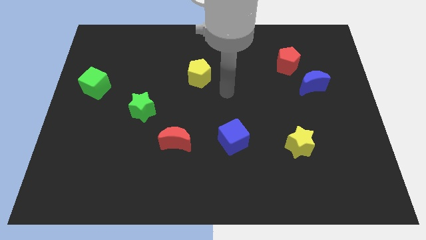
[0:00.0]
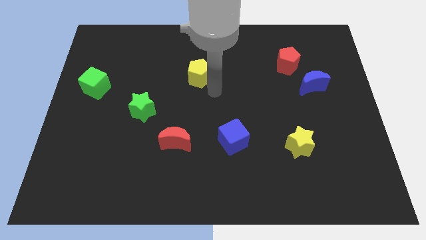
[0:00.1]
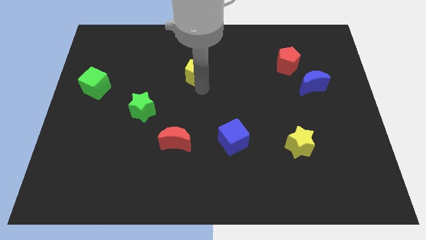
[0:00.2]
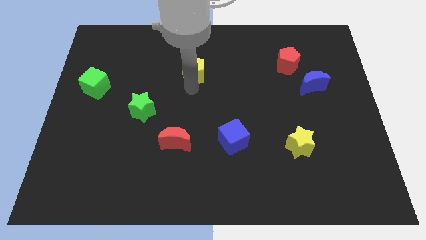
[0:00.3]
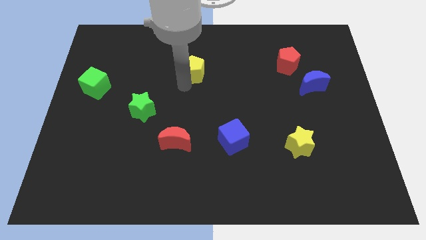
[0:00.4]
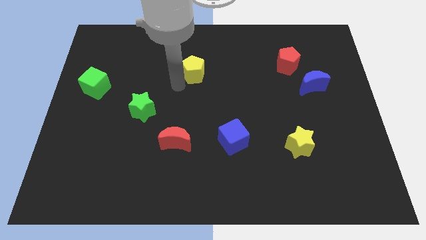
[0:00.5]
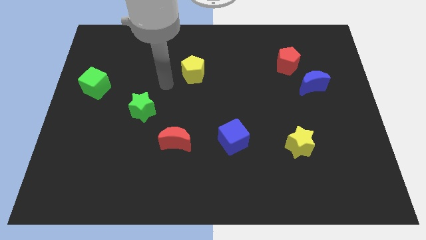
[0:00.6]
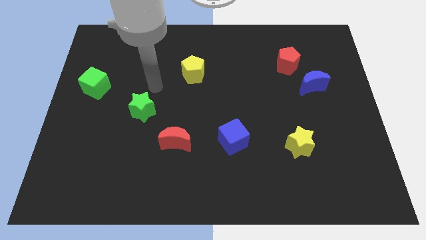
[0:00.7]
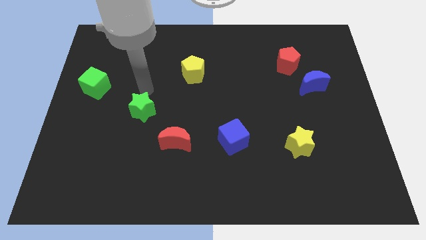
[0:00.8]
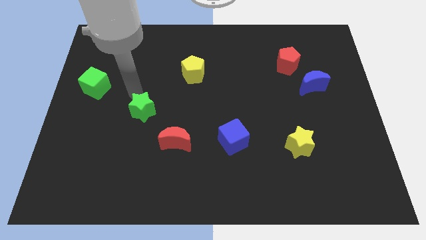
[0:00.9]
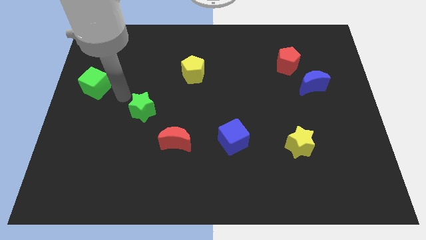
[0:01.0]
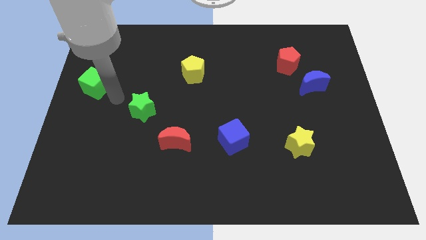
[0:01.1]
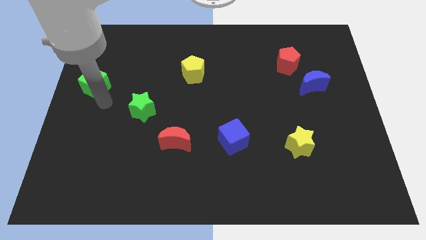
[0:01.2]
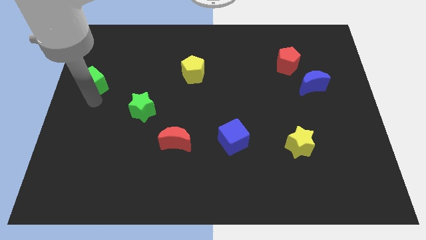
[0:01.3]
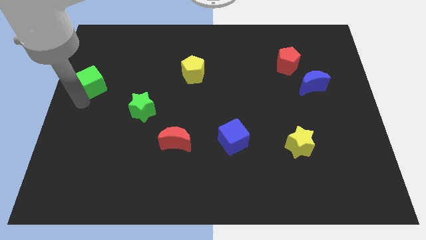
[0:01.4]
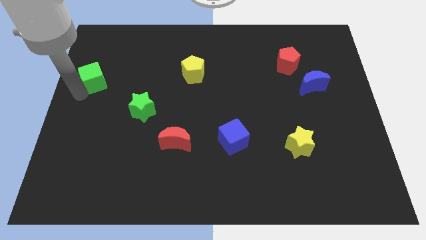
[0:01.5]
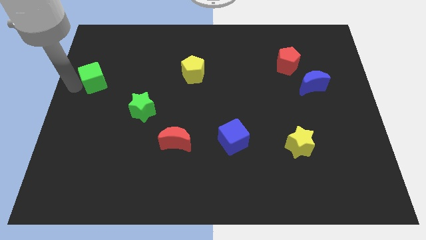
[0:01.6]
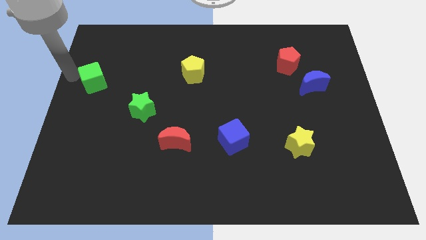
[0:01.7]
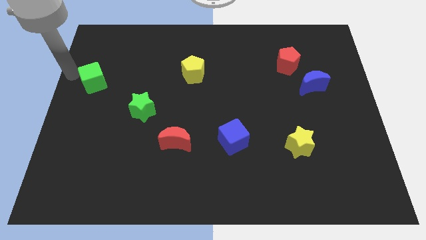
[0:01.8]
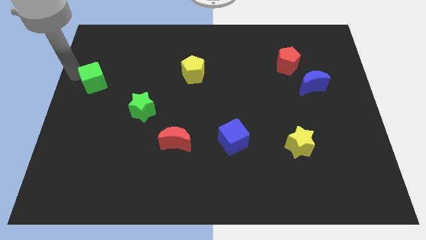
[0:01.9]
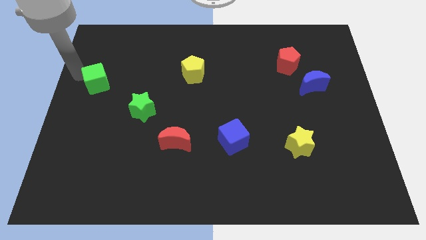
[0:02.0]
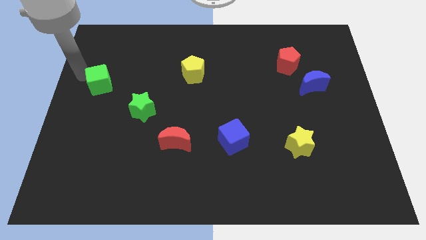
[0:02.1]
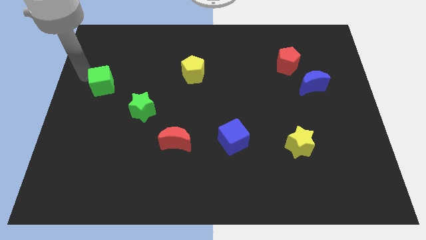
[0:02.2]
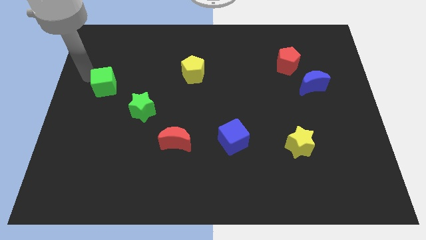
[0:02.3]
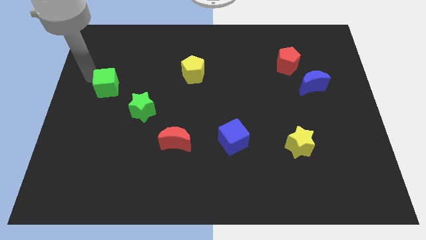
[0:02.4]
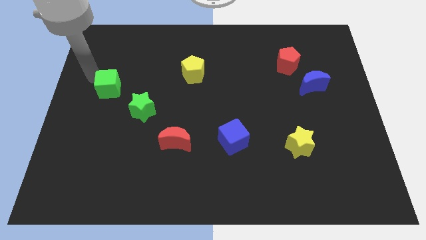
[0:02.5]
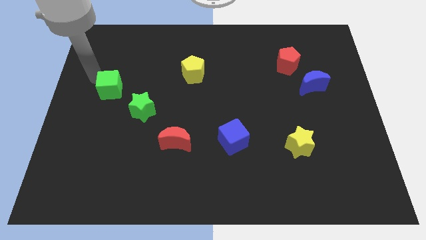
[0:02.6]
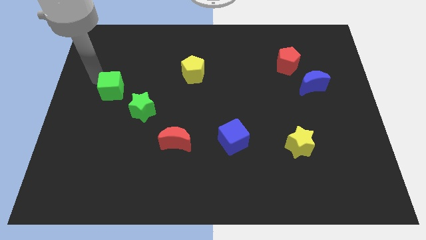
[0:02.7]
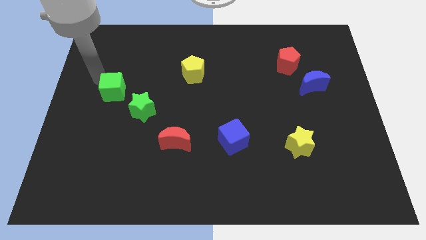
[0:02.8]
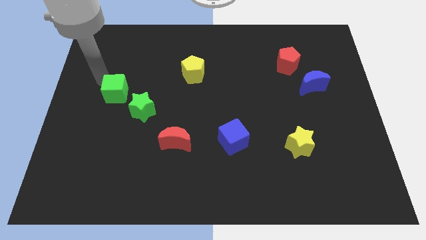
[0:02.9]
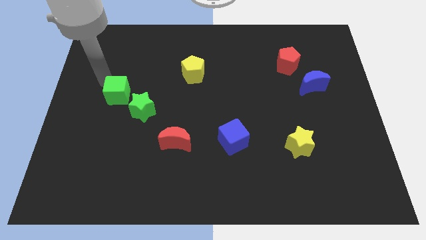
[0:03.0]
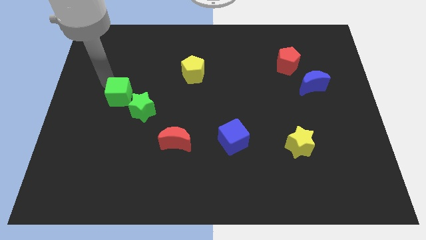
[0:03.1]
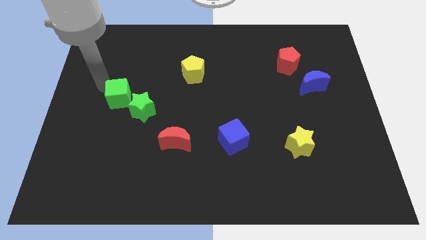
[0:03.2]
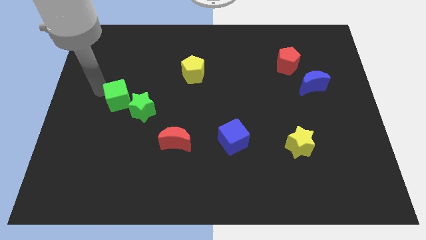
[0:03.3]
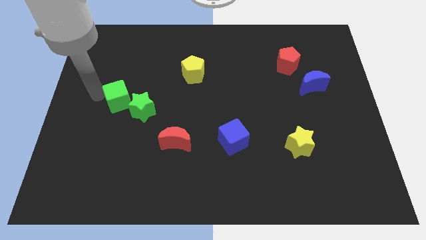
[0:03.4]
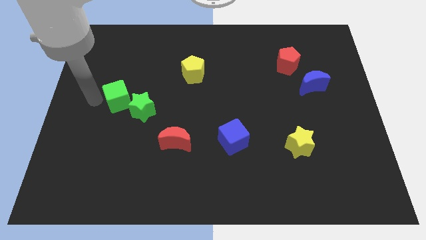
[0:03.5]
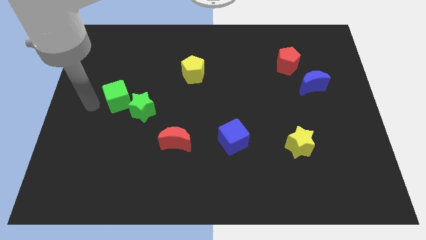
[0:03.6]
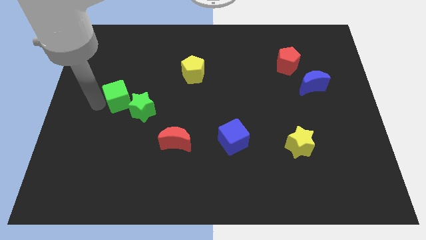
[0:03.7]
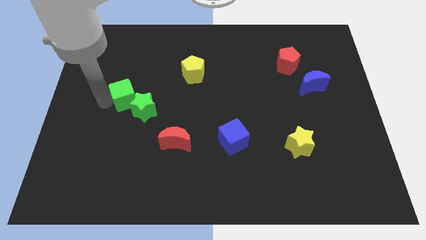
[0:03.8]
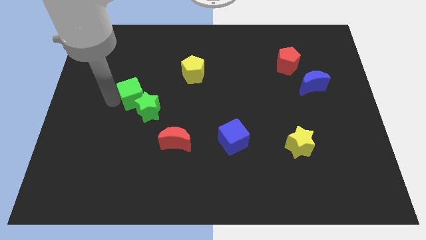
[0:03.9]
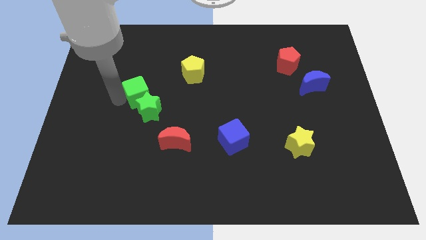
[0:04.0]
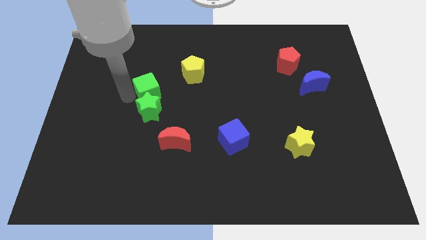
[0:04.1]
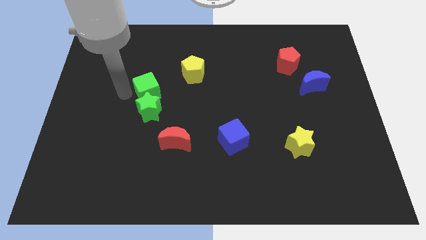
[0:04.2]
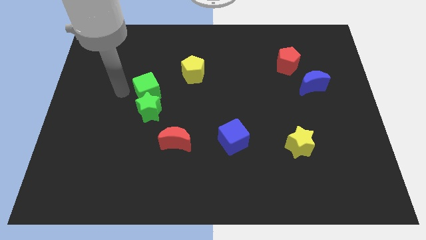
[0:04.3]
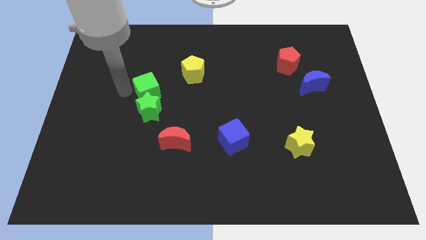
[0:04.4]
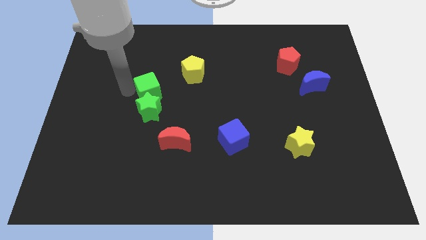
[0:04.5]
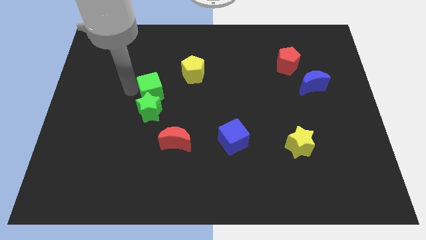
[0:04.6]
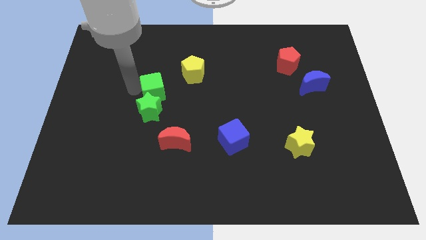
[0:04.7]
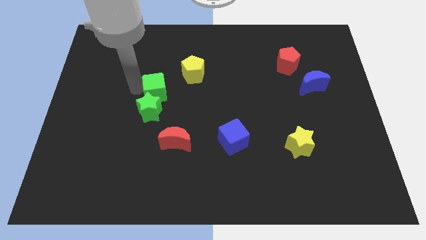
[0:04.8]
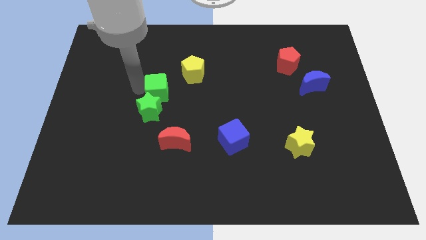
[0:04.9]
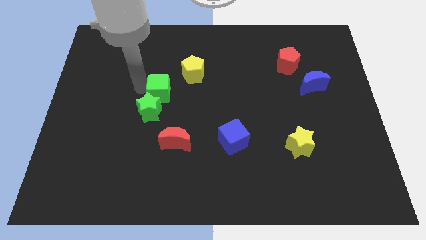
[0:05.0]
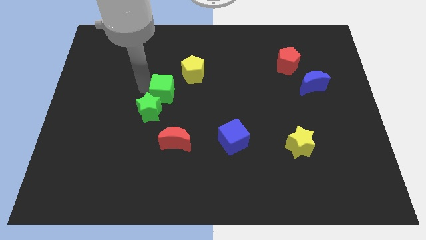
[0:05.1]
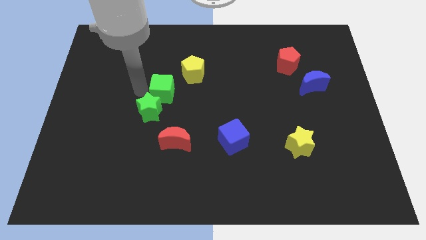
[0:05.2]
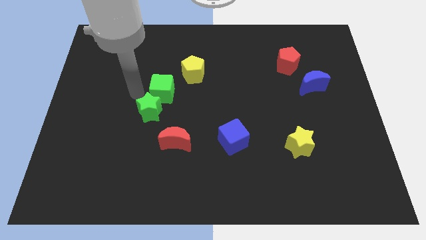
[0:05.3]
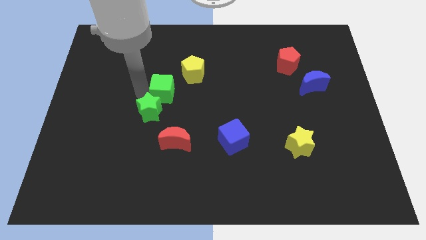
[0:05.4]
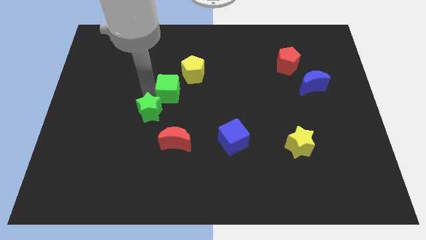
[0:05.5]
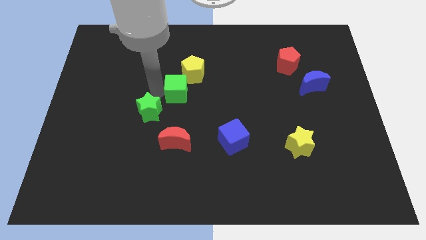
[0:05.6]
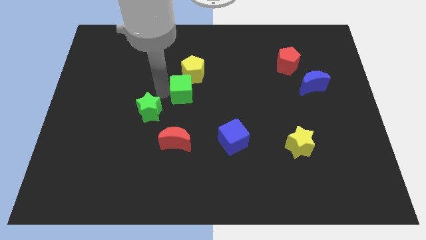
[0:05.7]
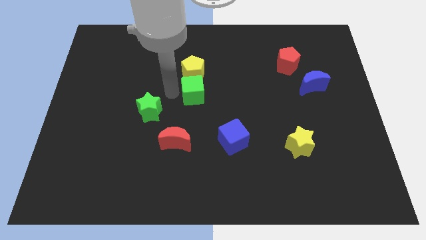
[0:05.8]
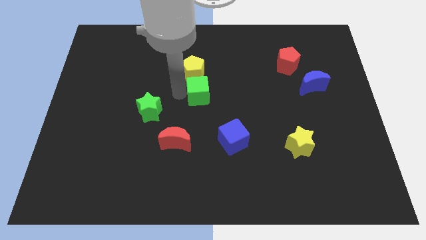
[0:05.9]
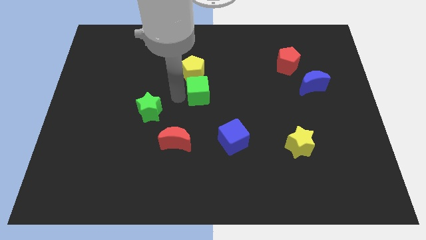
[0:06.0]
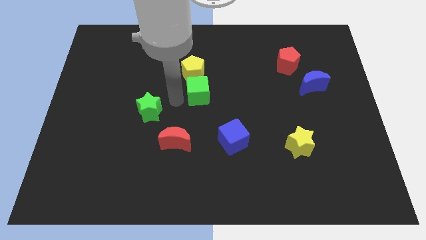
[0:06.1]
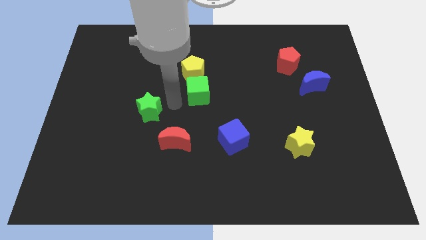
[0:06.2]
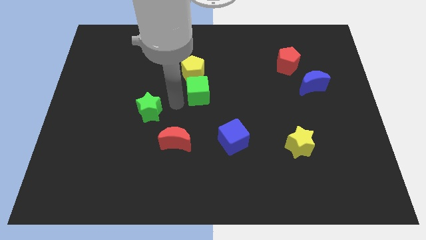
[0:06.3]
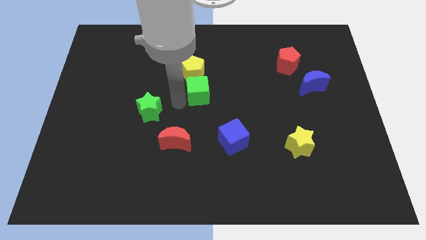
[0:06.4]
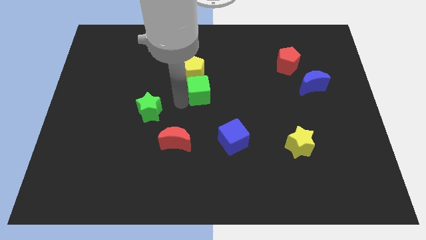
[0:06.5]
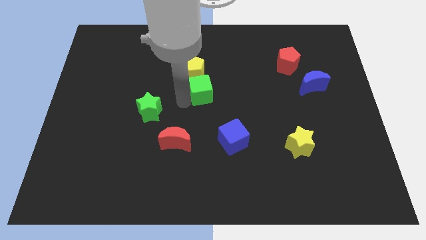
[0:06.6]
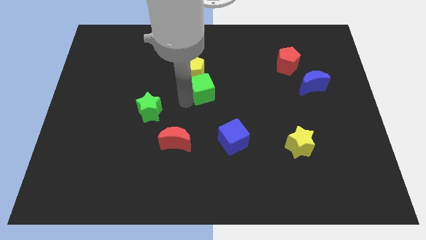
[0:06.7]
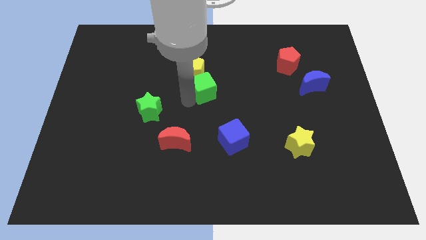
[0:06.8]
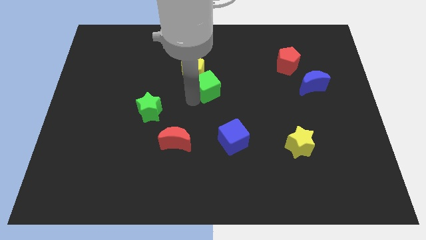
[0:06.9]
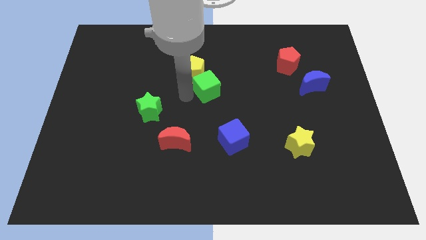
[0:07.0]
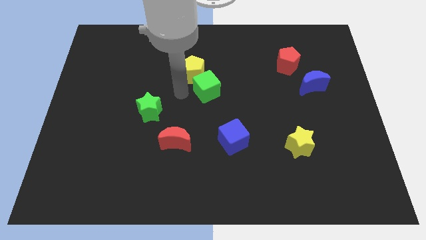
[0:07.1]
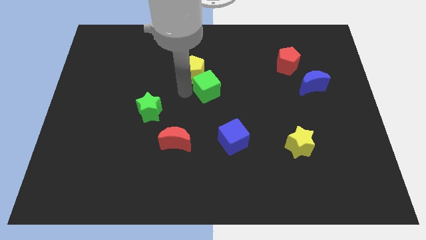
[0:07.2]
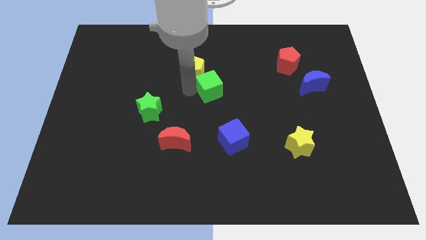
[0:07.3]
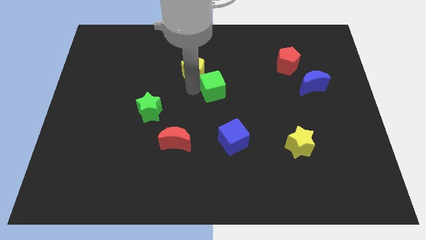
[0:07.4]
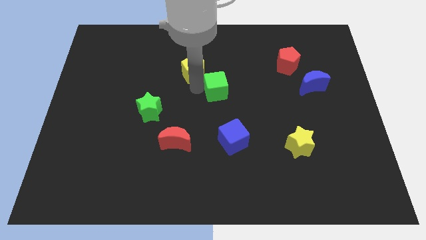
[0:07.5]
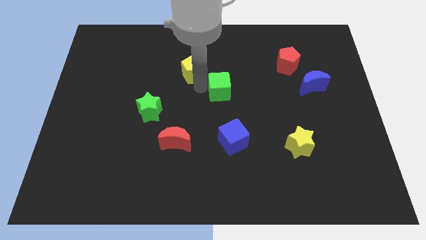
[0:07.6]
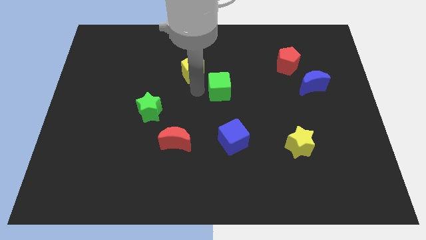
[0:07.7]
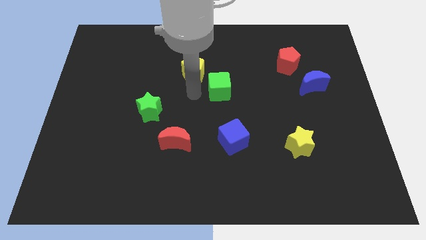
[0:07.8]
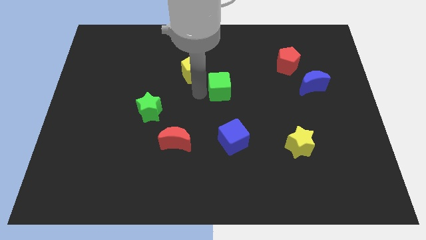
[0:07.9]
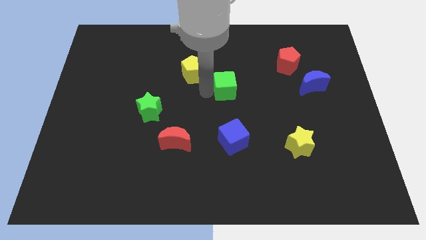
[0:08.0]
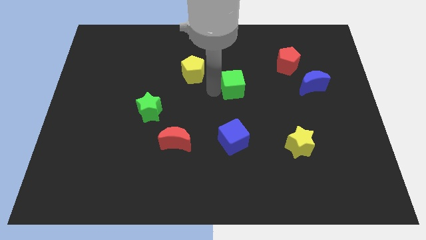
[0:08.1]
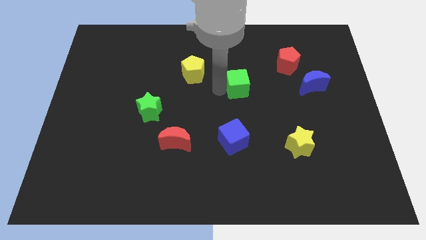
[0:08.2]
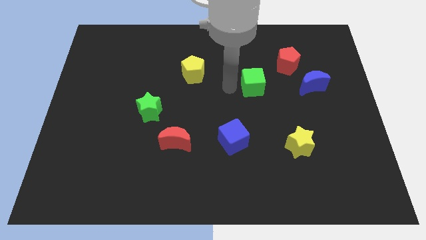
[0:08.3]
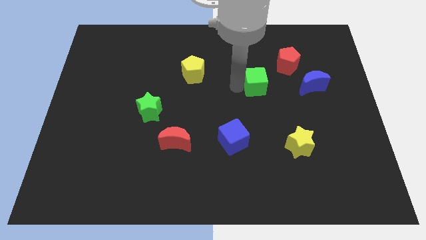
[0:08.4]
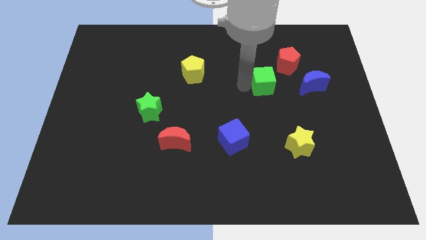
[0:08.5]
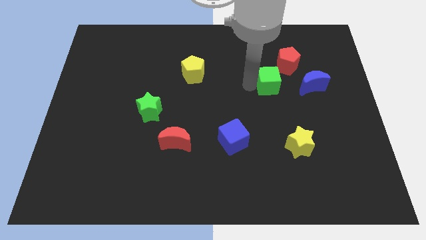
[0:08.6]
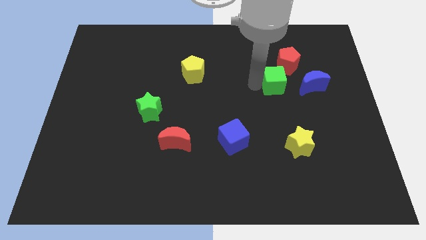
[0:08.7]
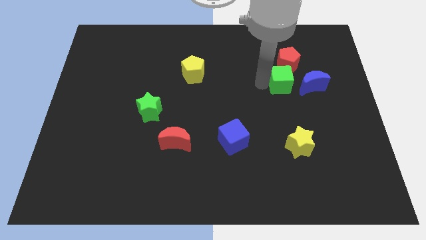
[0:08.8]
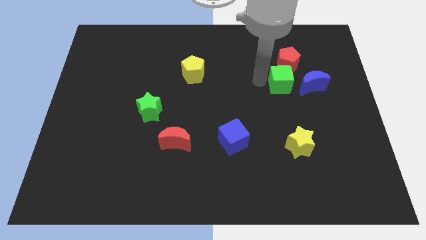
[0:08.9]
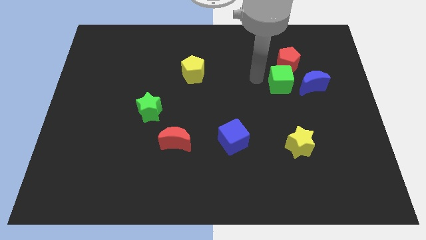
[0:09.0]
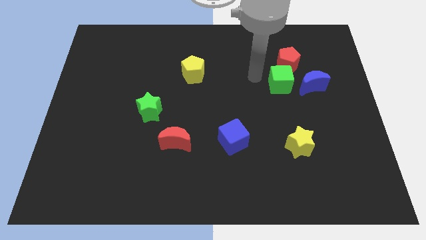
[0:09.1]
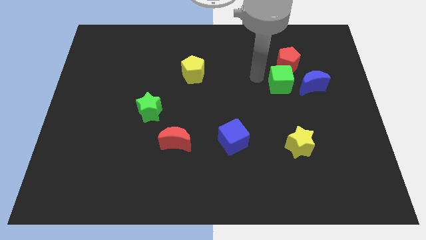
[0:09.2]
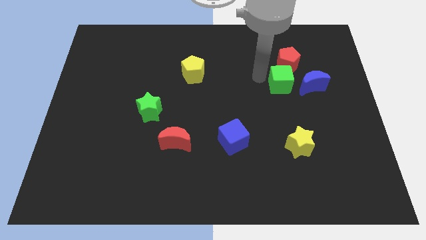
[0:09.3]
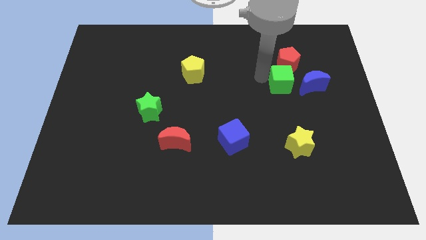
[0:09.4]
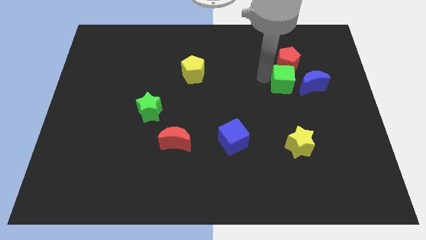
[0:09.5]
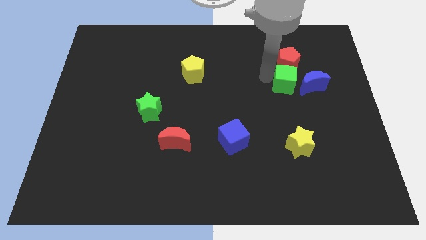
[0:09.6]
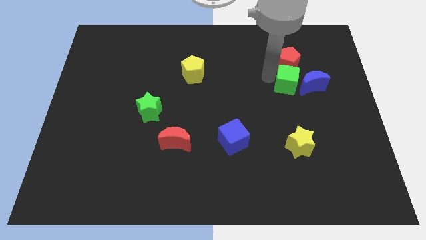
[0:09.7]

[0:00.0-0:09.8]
push the green cube close to the blue moon
